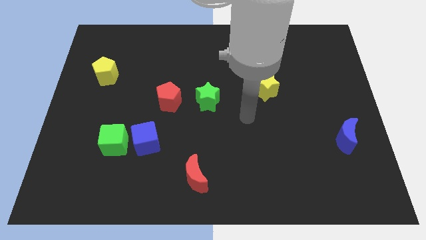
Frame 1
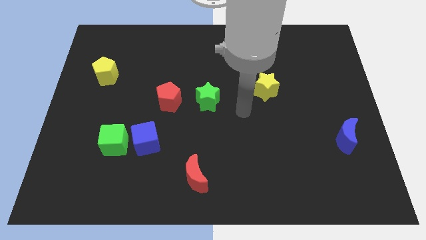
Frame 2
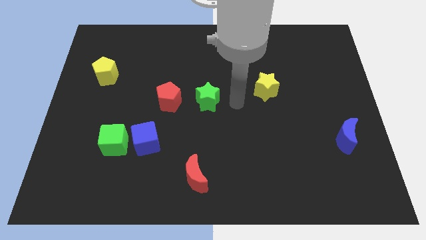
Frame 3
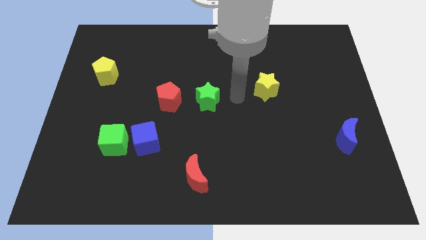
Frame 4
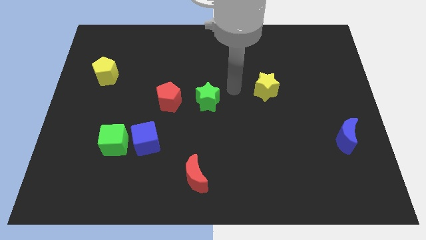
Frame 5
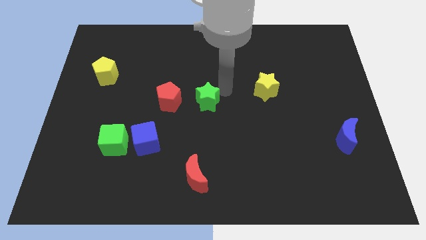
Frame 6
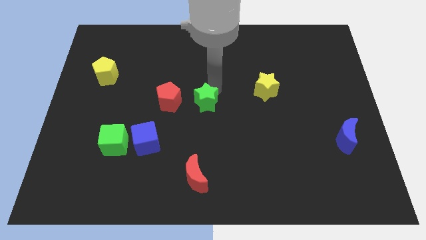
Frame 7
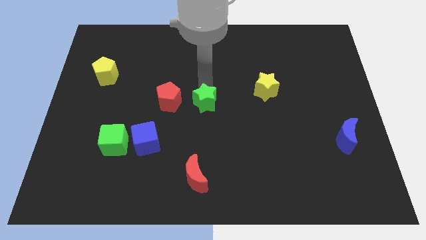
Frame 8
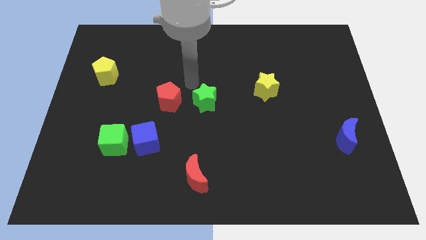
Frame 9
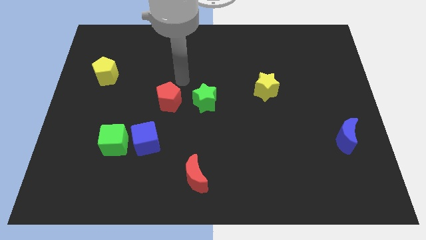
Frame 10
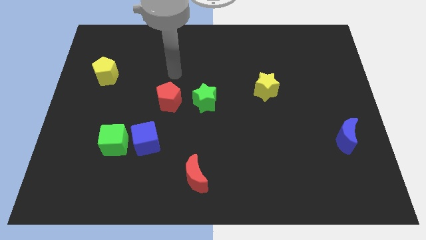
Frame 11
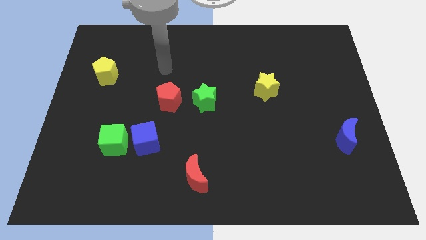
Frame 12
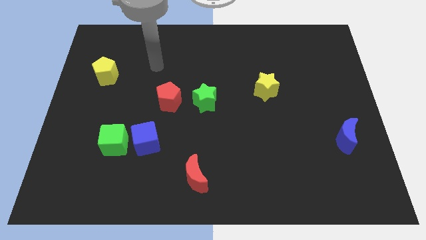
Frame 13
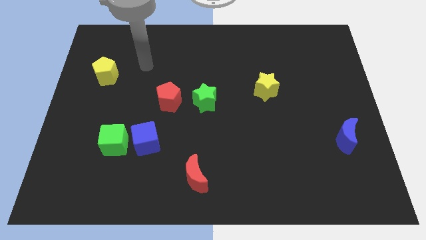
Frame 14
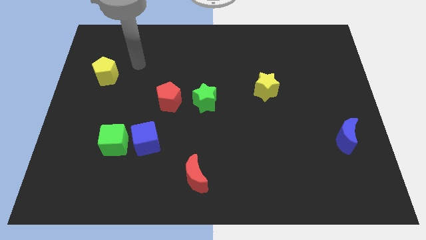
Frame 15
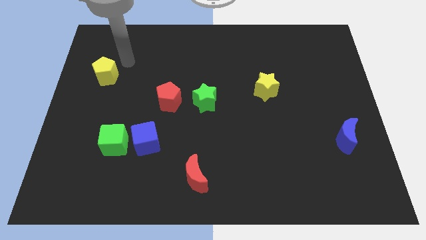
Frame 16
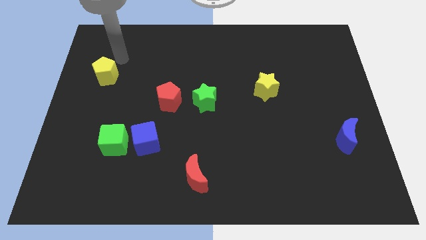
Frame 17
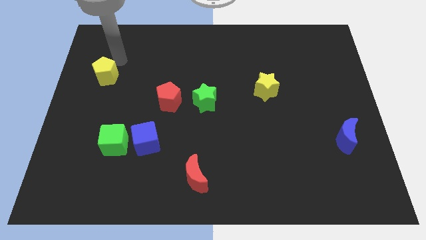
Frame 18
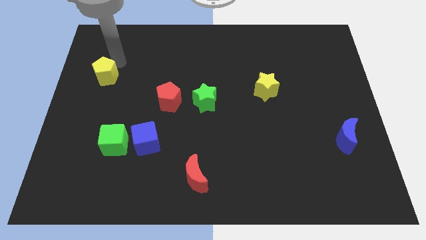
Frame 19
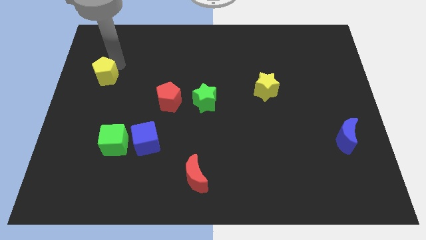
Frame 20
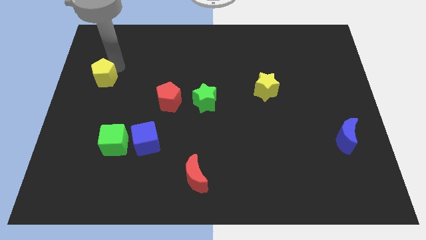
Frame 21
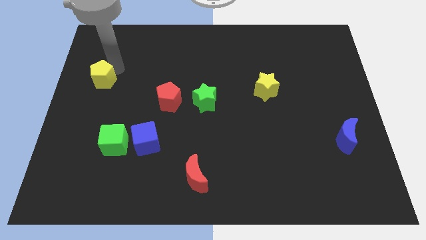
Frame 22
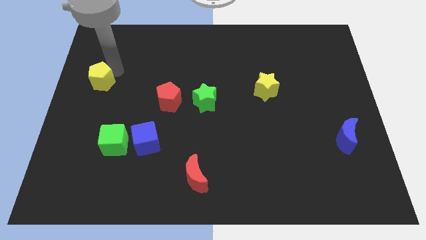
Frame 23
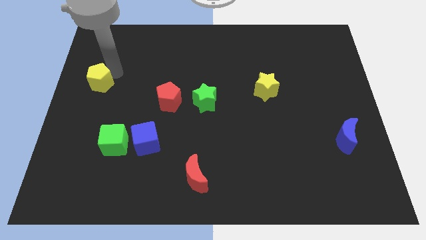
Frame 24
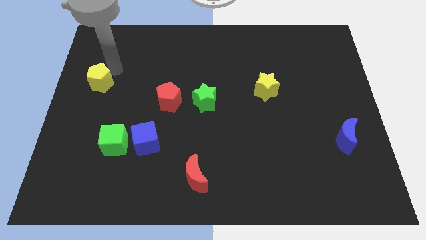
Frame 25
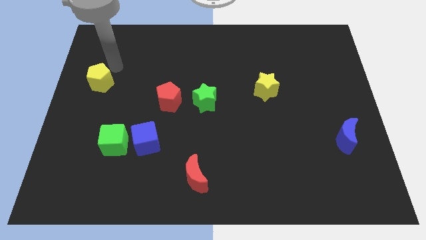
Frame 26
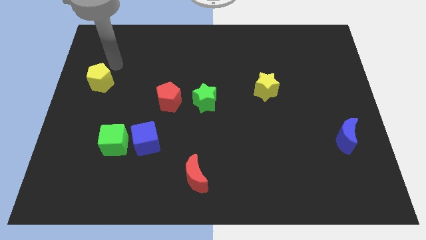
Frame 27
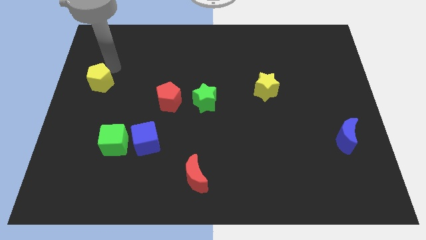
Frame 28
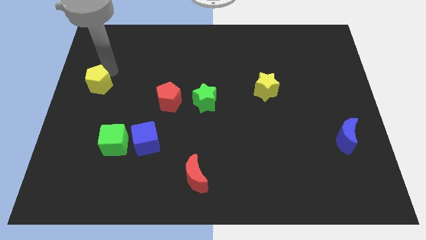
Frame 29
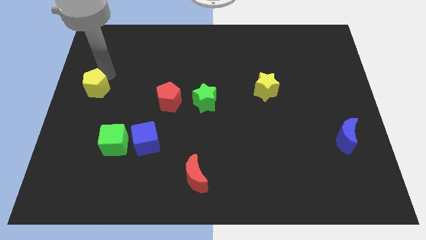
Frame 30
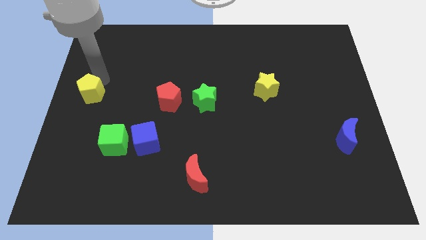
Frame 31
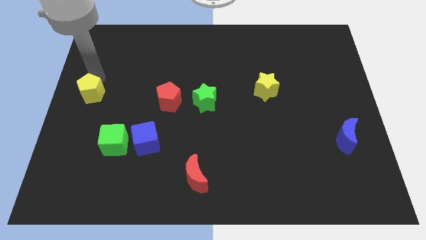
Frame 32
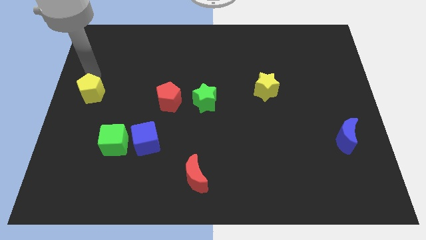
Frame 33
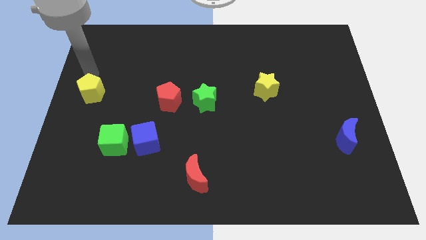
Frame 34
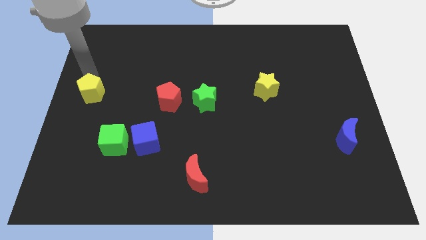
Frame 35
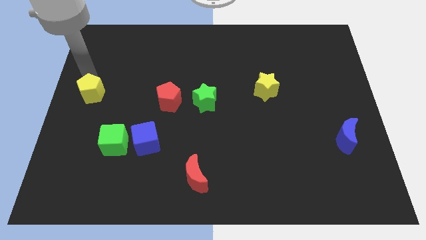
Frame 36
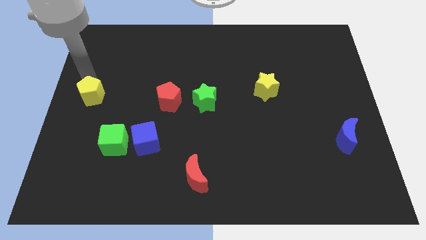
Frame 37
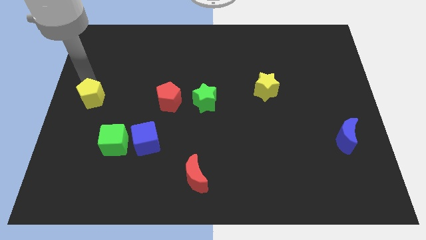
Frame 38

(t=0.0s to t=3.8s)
slide the yellow pentagon down a little

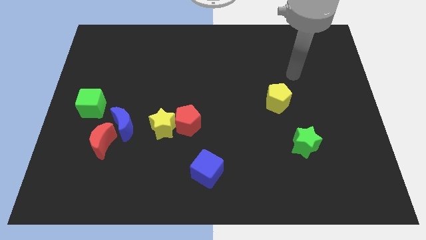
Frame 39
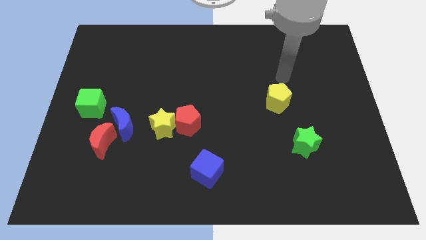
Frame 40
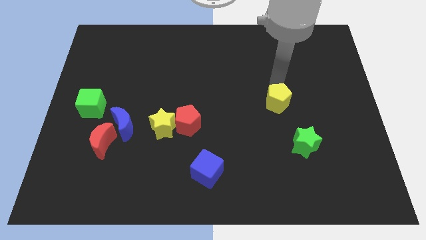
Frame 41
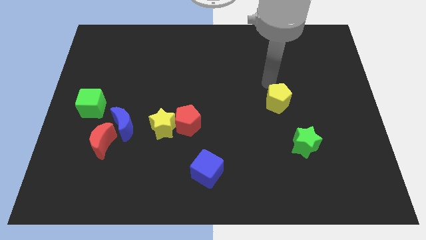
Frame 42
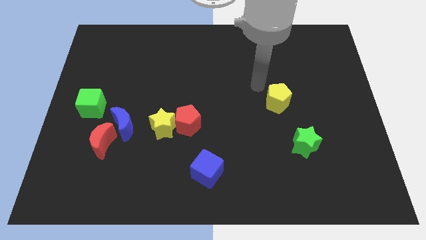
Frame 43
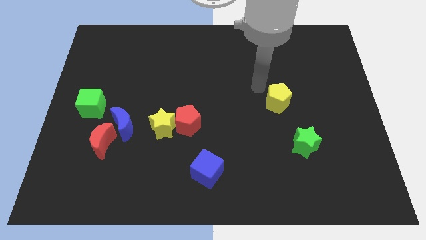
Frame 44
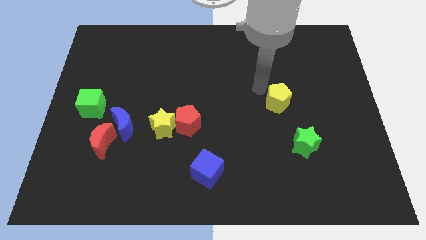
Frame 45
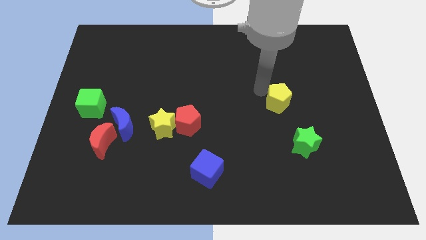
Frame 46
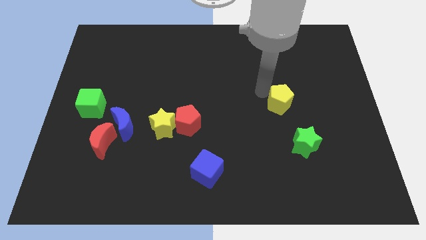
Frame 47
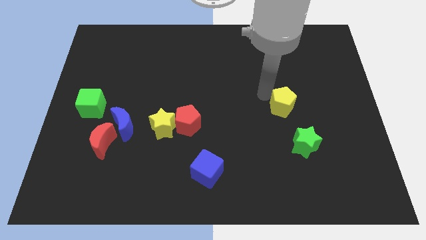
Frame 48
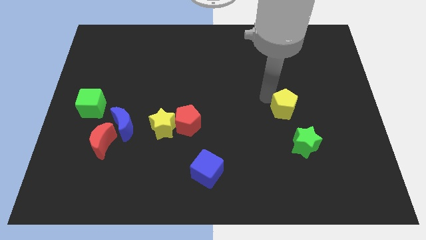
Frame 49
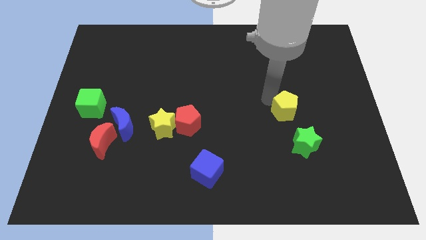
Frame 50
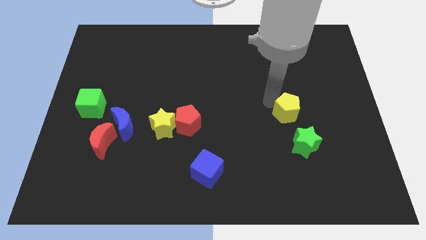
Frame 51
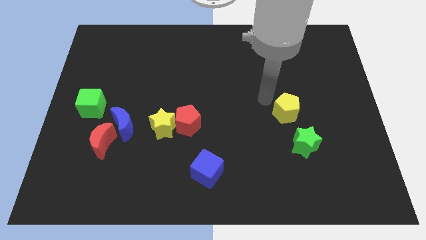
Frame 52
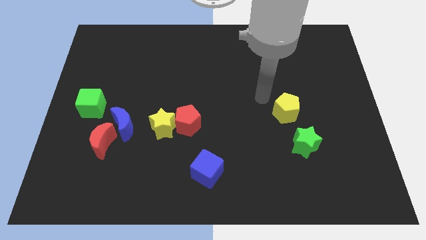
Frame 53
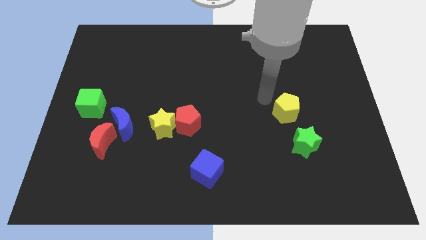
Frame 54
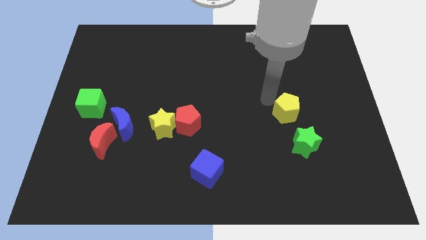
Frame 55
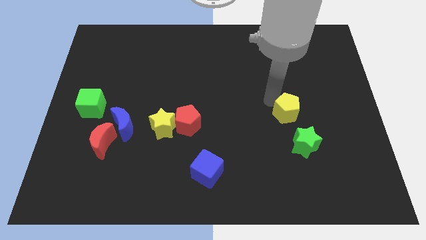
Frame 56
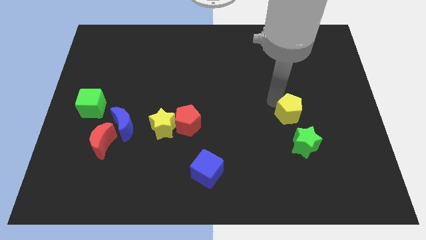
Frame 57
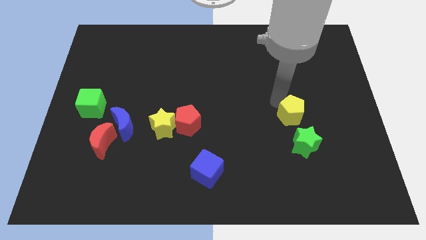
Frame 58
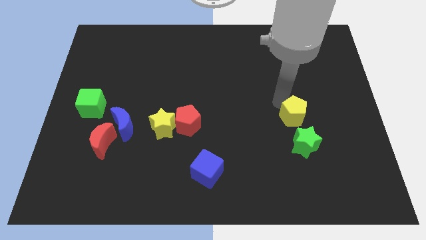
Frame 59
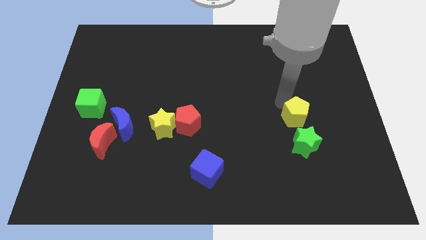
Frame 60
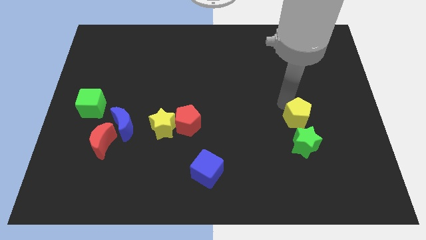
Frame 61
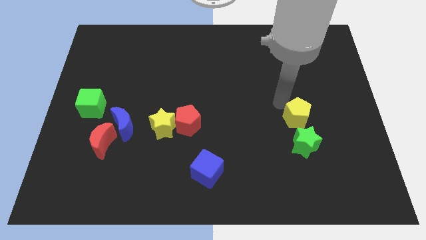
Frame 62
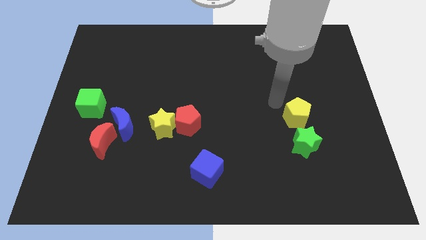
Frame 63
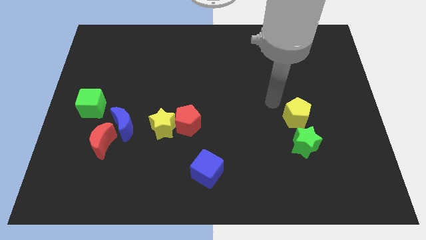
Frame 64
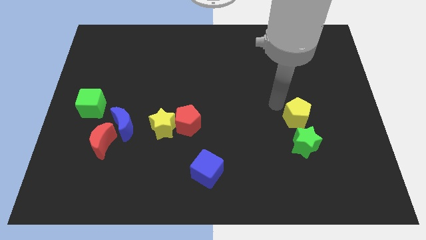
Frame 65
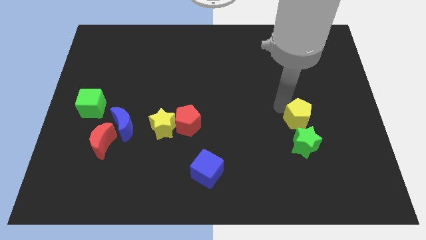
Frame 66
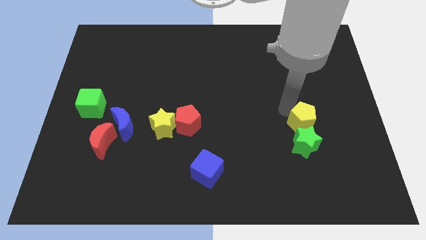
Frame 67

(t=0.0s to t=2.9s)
slightly move the yellow pentagon diagonally downwards and to the right

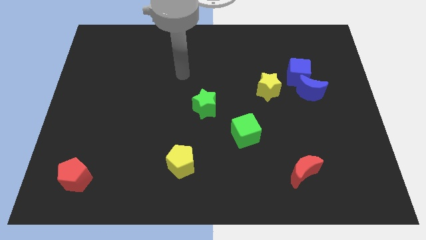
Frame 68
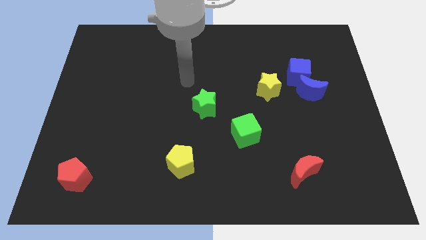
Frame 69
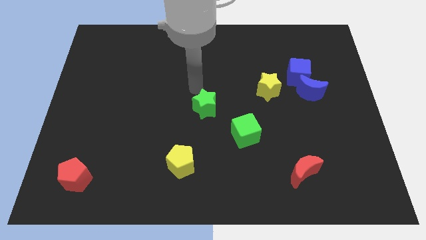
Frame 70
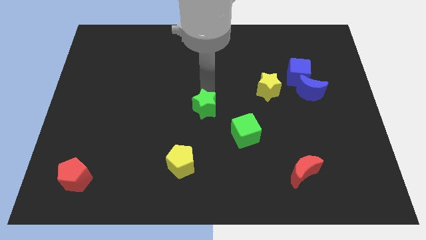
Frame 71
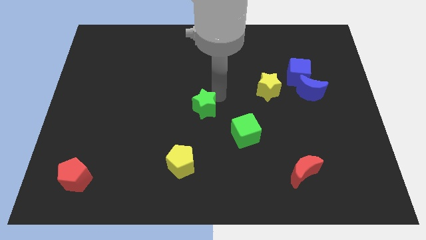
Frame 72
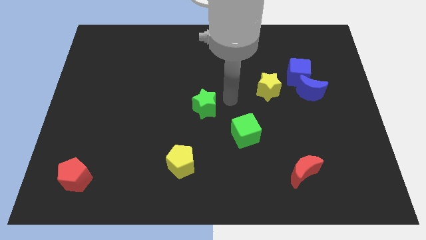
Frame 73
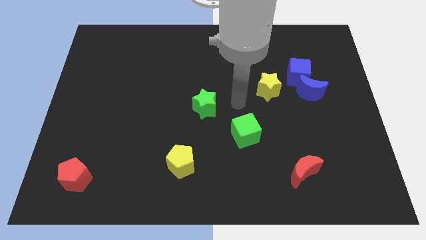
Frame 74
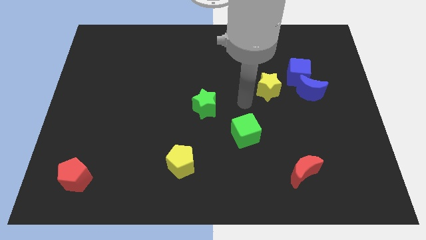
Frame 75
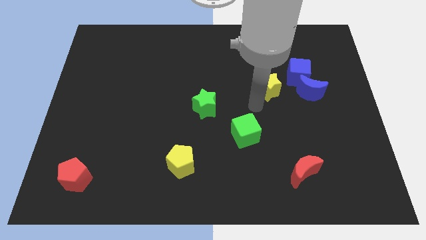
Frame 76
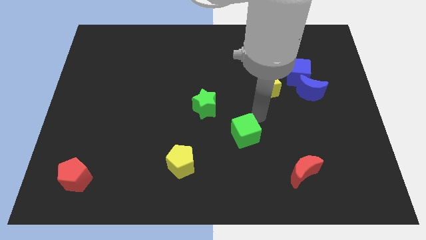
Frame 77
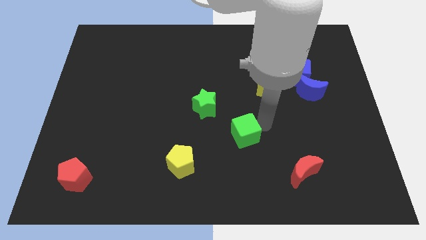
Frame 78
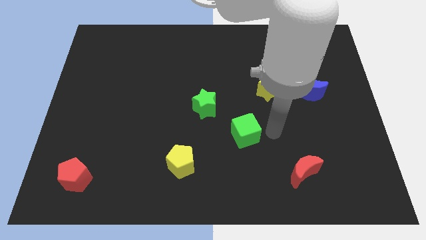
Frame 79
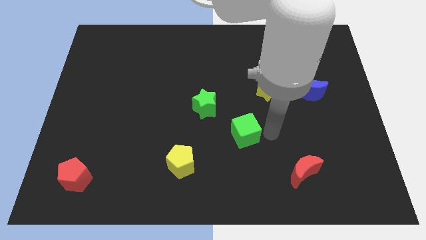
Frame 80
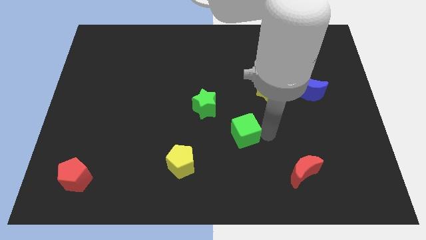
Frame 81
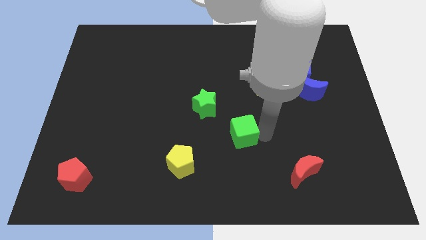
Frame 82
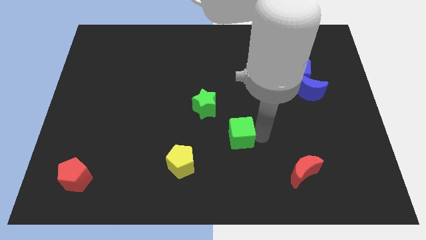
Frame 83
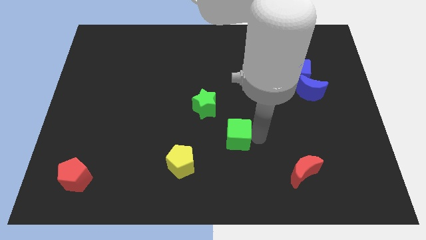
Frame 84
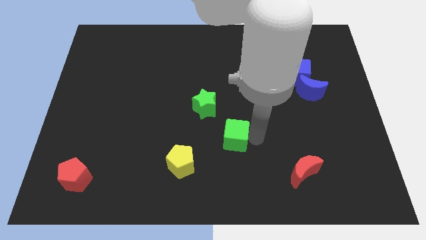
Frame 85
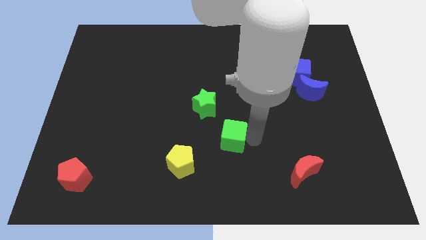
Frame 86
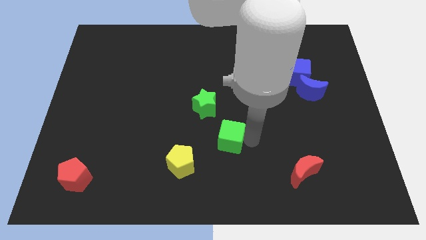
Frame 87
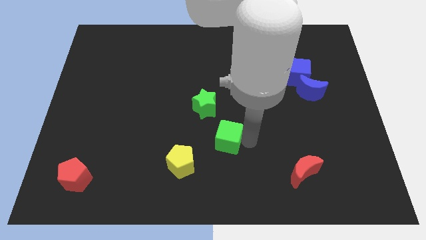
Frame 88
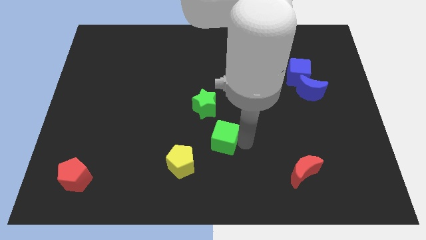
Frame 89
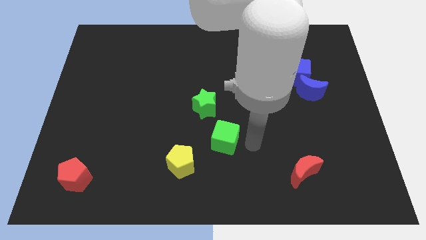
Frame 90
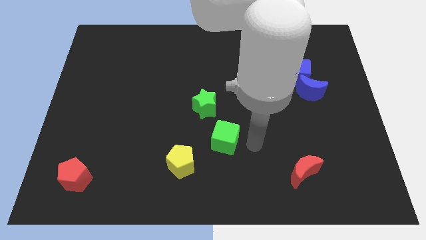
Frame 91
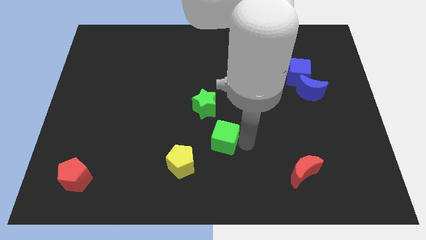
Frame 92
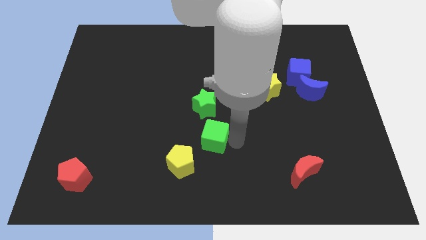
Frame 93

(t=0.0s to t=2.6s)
slightly push the green cube left
